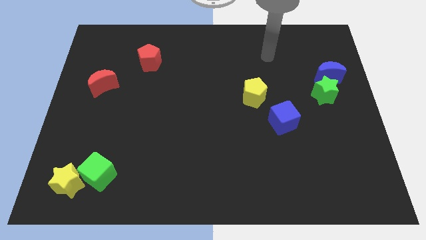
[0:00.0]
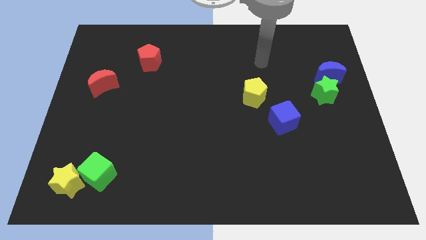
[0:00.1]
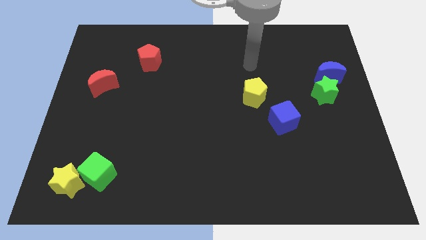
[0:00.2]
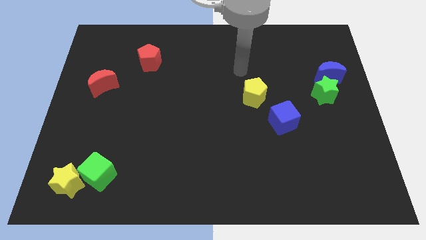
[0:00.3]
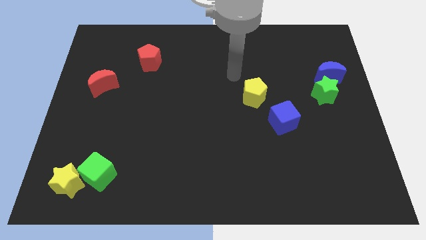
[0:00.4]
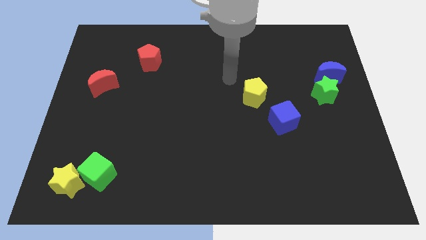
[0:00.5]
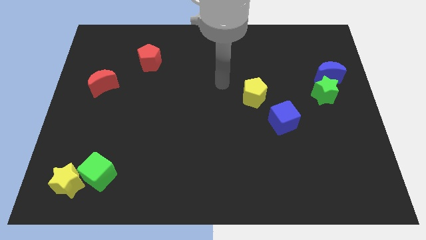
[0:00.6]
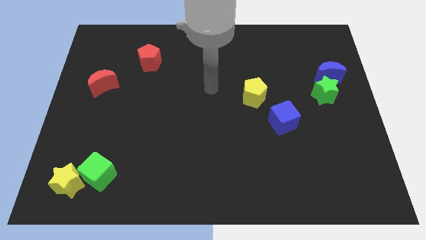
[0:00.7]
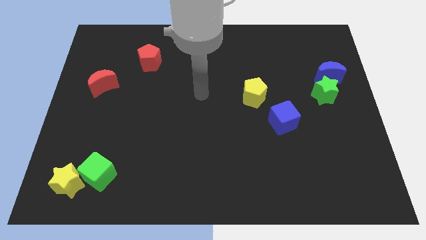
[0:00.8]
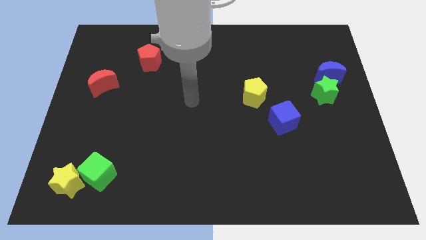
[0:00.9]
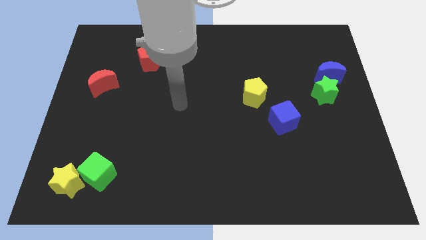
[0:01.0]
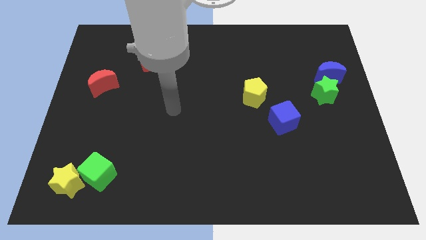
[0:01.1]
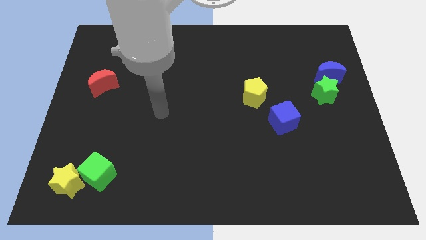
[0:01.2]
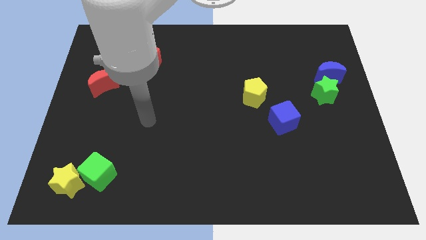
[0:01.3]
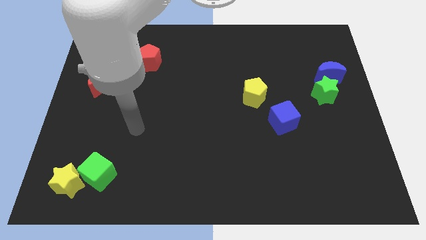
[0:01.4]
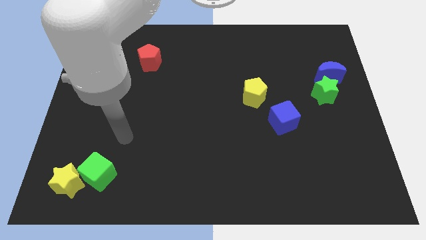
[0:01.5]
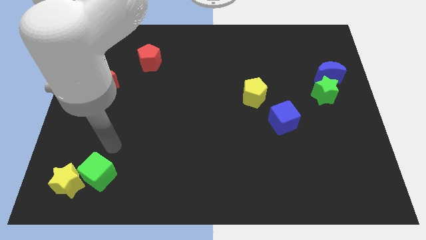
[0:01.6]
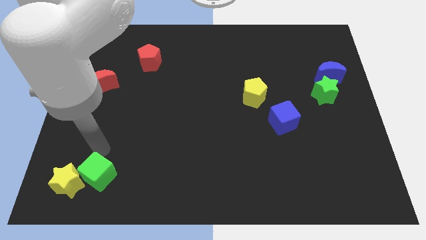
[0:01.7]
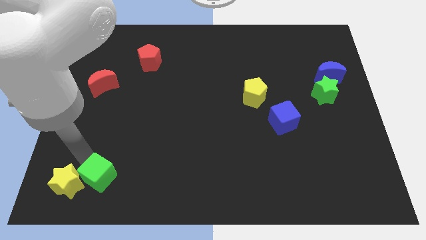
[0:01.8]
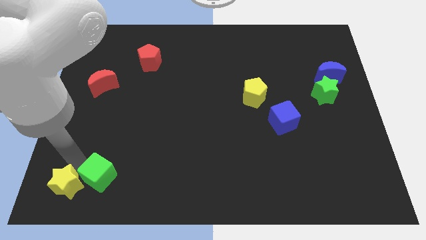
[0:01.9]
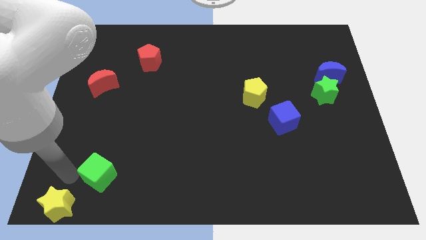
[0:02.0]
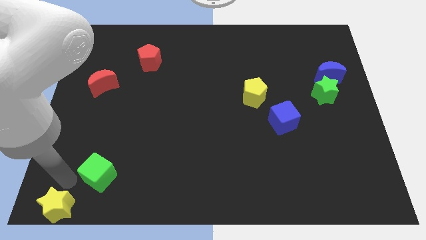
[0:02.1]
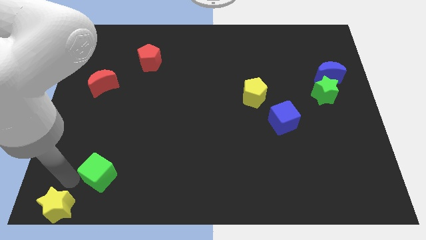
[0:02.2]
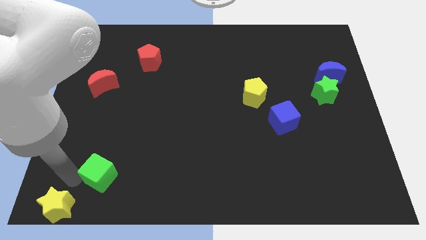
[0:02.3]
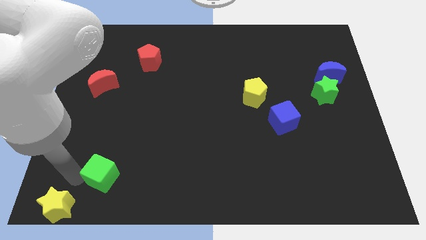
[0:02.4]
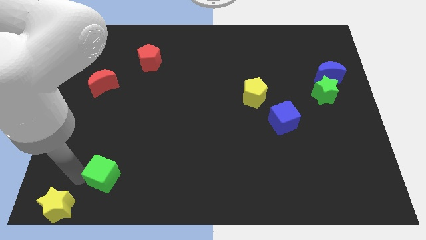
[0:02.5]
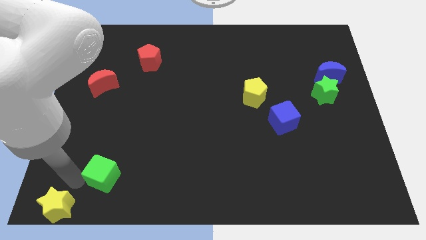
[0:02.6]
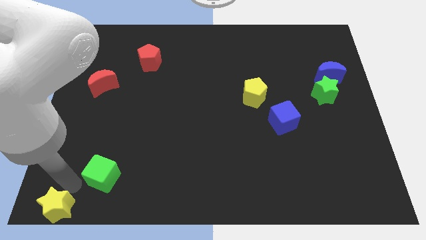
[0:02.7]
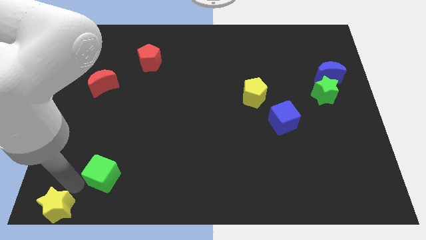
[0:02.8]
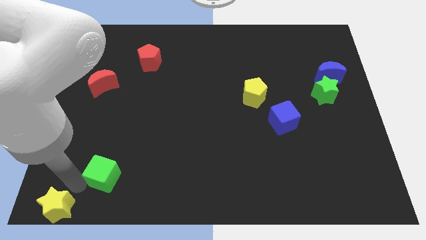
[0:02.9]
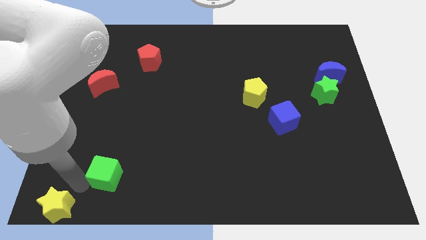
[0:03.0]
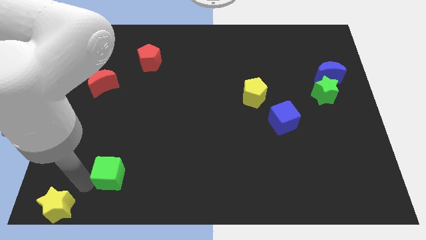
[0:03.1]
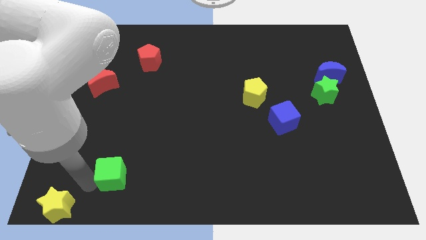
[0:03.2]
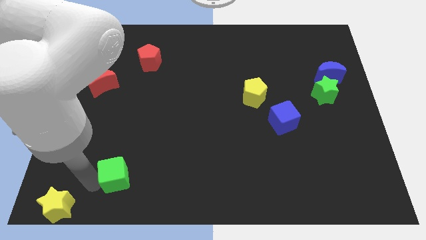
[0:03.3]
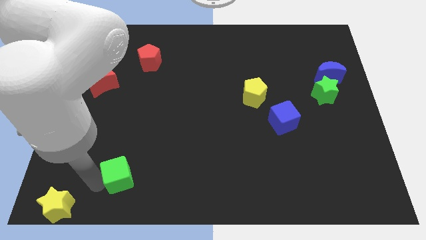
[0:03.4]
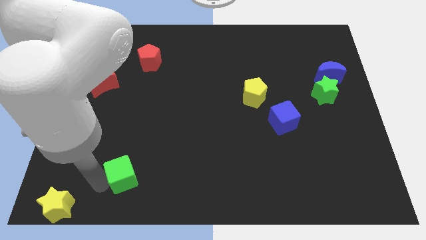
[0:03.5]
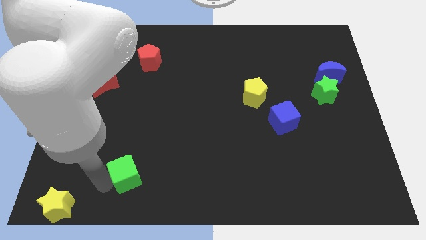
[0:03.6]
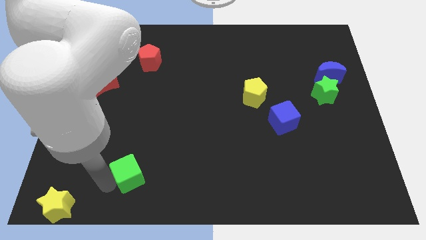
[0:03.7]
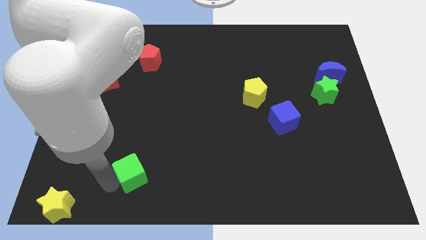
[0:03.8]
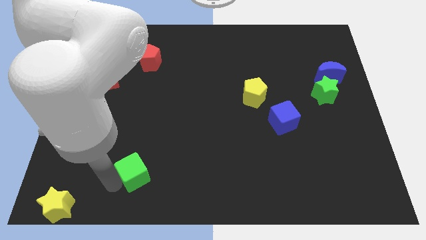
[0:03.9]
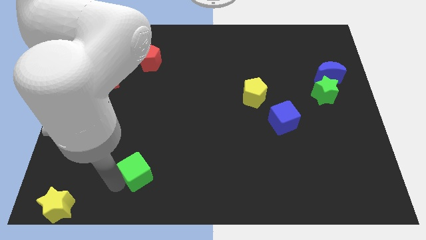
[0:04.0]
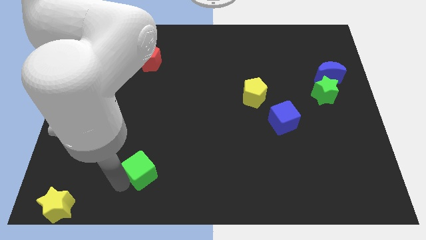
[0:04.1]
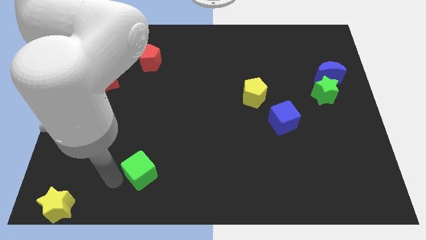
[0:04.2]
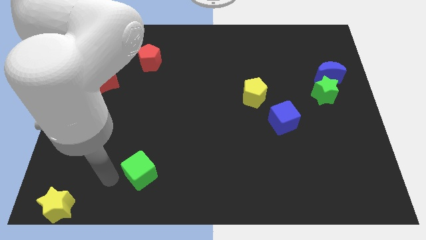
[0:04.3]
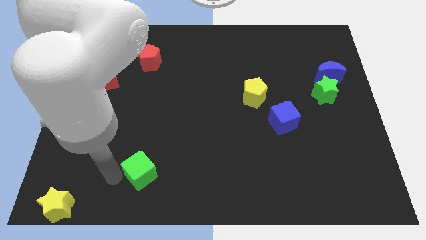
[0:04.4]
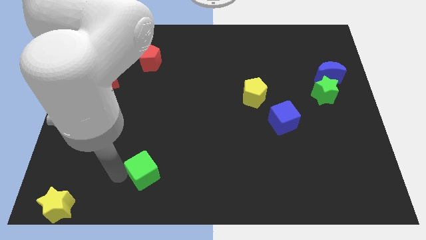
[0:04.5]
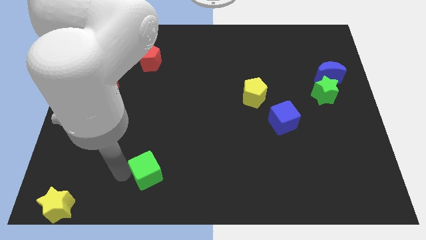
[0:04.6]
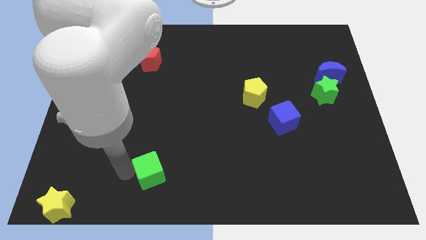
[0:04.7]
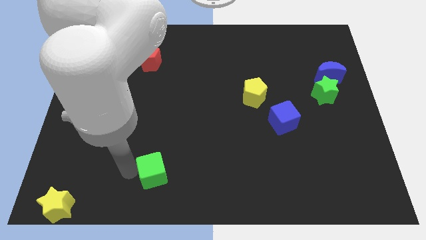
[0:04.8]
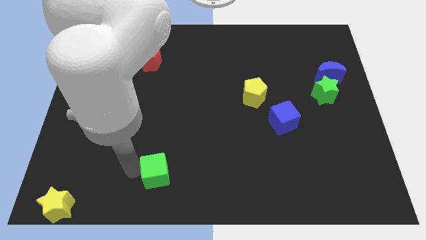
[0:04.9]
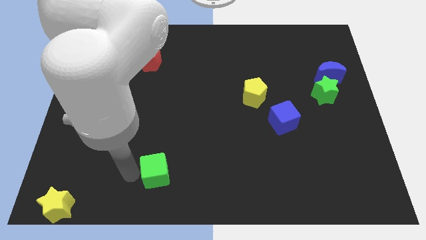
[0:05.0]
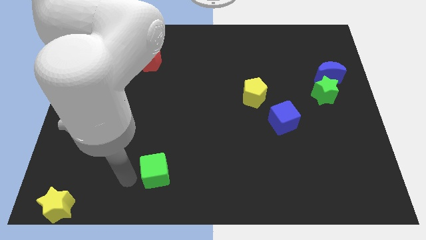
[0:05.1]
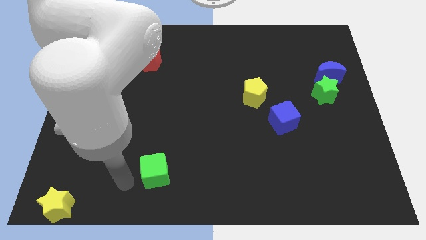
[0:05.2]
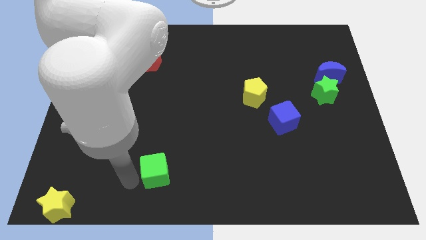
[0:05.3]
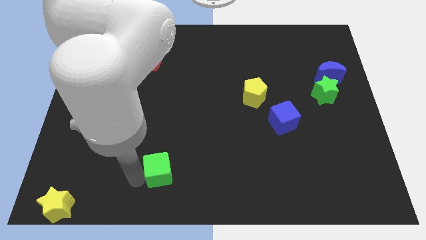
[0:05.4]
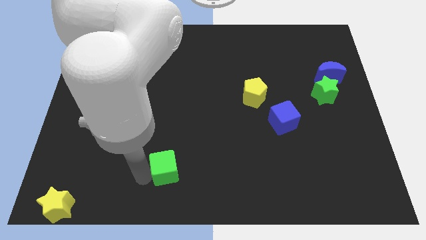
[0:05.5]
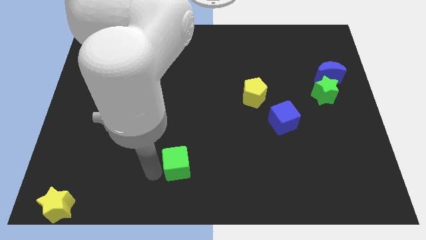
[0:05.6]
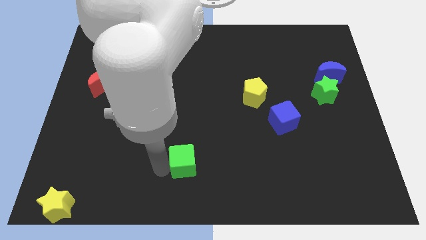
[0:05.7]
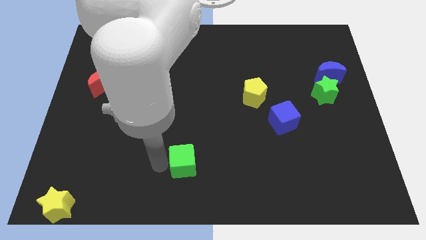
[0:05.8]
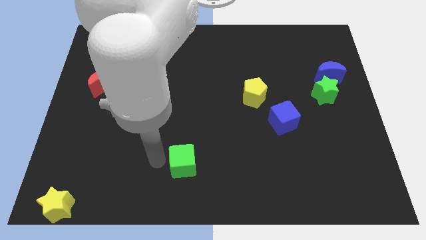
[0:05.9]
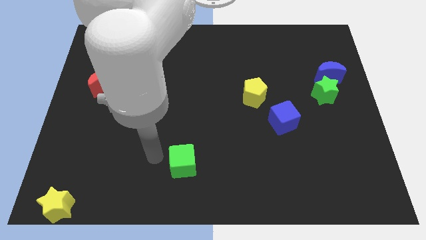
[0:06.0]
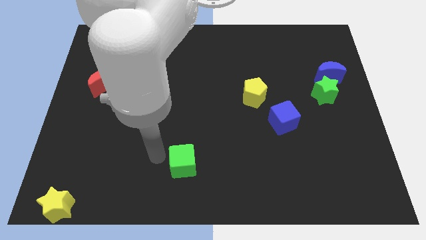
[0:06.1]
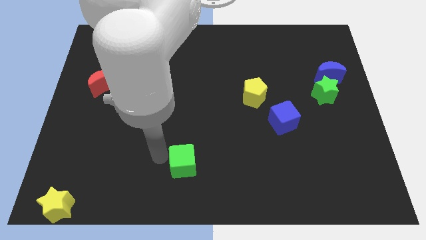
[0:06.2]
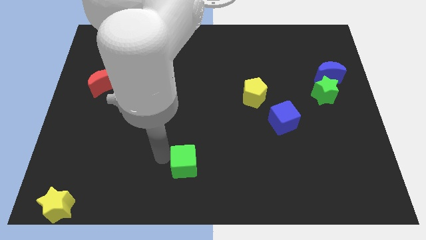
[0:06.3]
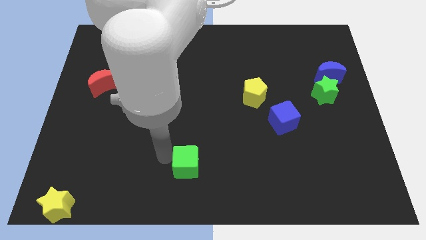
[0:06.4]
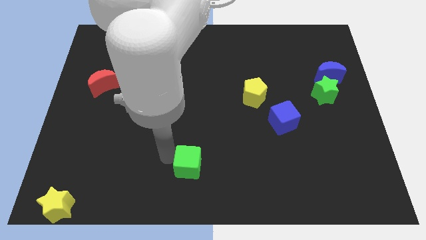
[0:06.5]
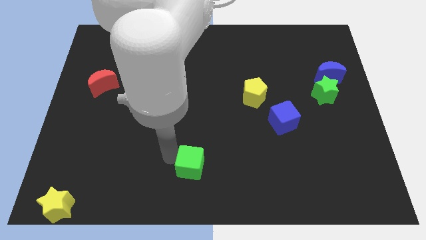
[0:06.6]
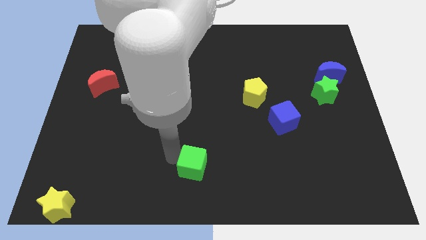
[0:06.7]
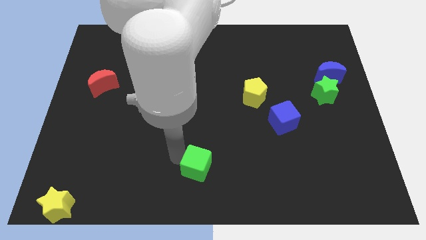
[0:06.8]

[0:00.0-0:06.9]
slide the green cube right

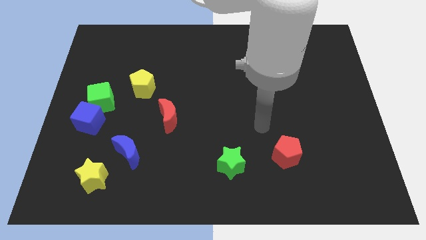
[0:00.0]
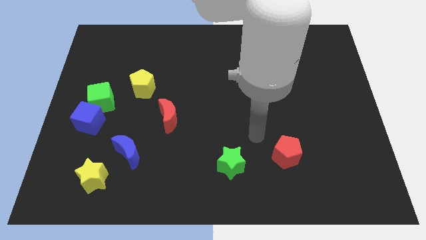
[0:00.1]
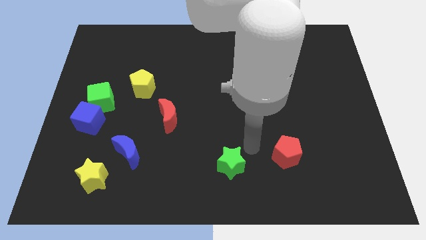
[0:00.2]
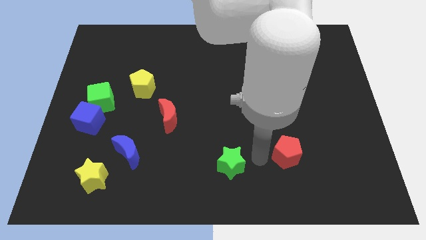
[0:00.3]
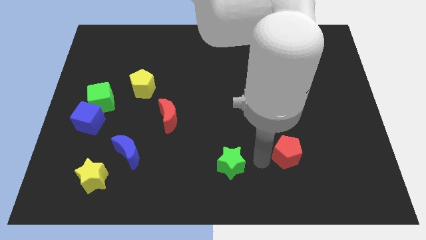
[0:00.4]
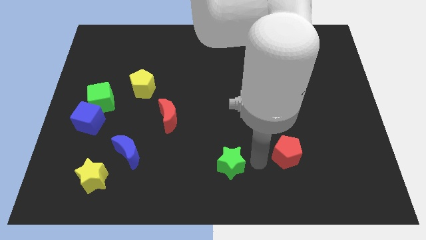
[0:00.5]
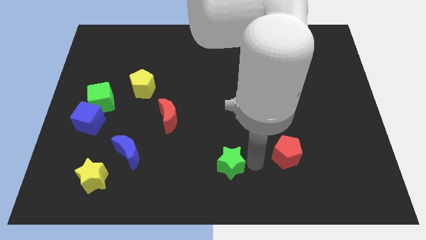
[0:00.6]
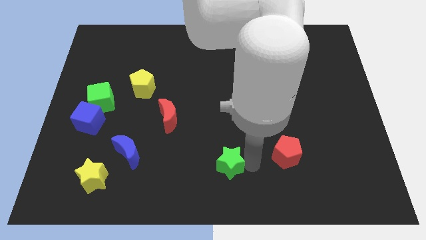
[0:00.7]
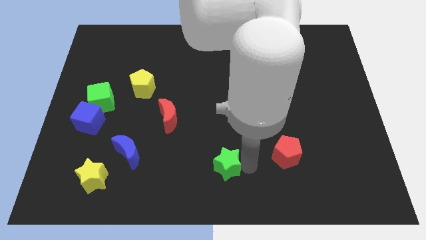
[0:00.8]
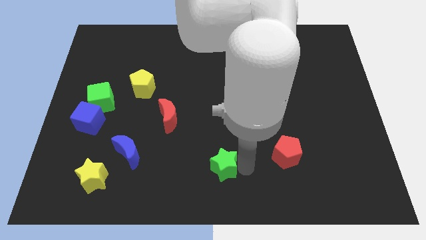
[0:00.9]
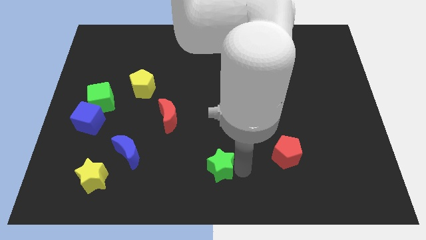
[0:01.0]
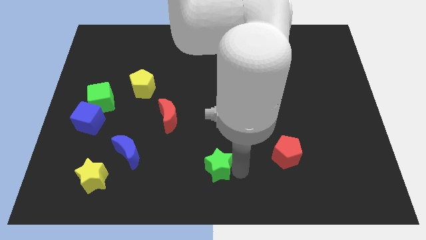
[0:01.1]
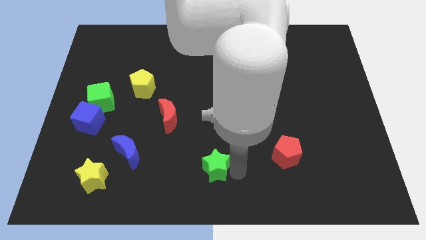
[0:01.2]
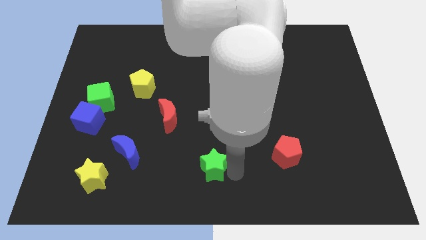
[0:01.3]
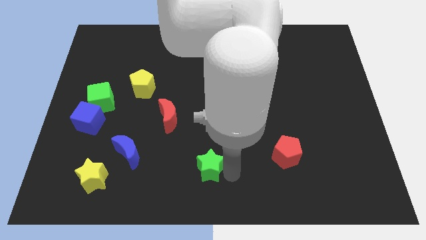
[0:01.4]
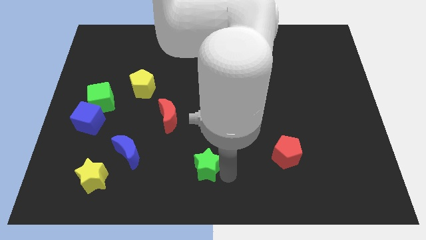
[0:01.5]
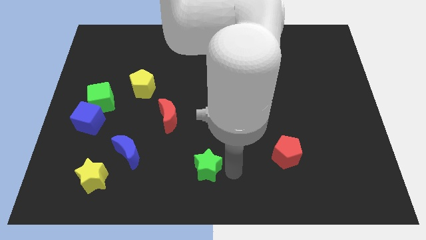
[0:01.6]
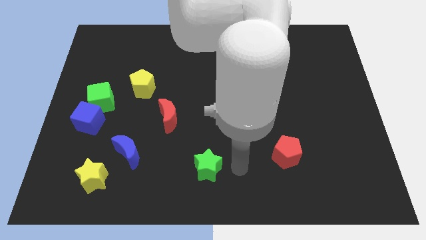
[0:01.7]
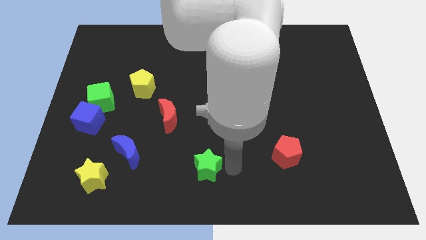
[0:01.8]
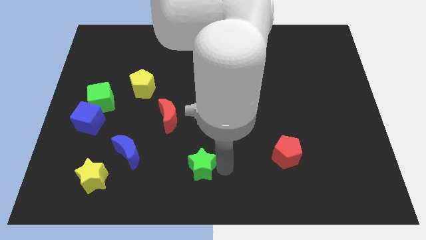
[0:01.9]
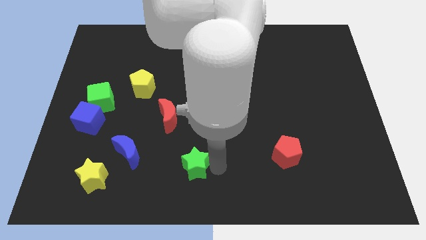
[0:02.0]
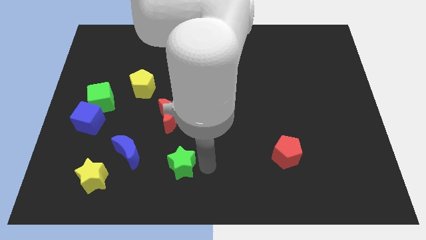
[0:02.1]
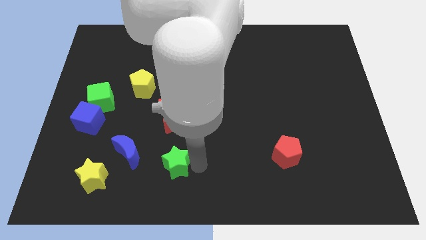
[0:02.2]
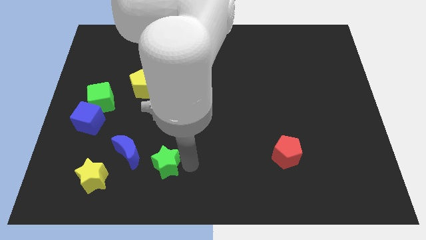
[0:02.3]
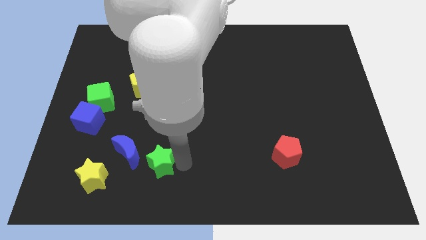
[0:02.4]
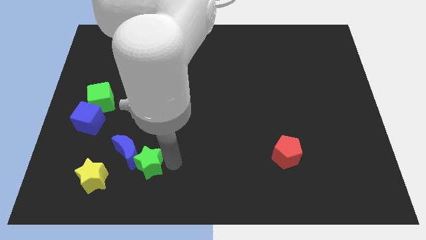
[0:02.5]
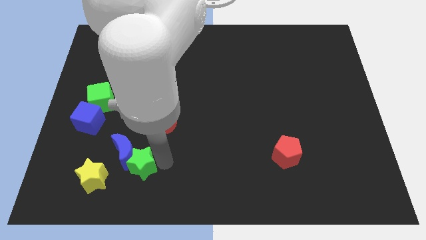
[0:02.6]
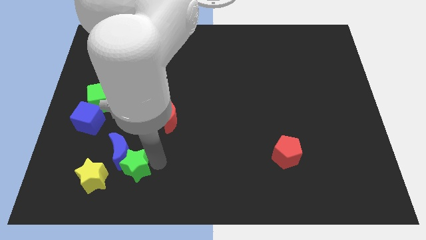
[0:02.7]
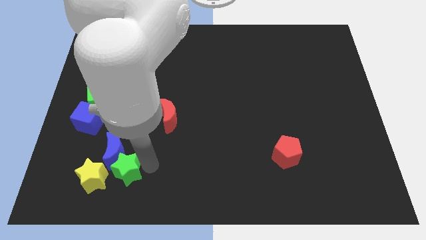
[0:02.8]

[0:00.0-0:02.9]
move the green star left
